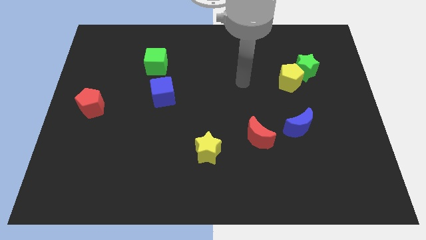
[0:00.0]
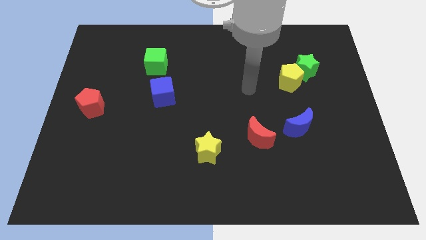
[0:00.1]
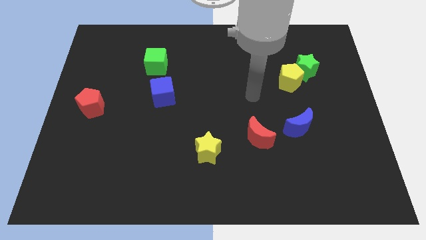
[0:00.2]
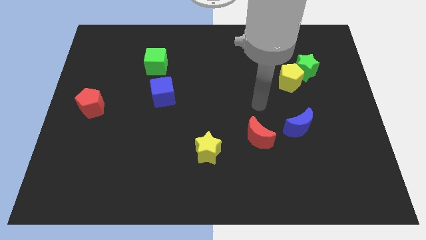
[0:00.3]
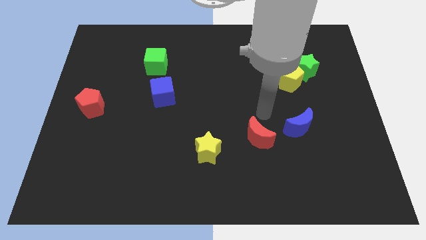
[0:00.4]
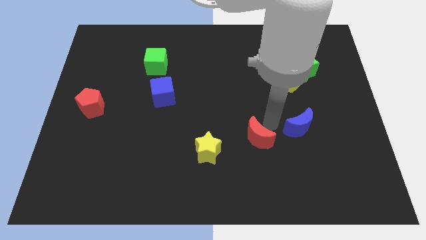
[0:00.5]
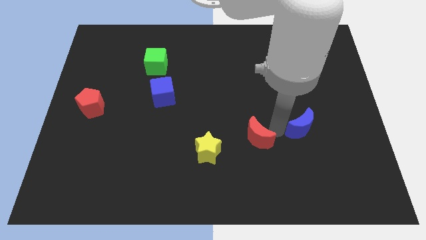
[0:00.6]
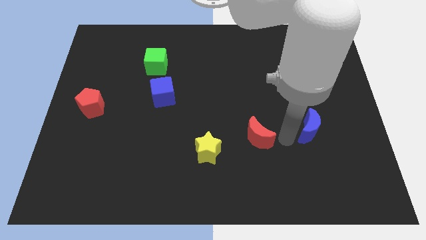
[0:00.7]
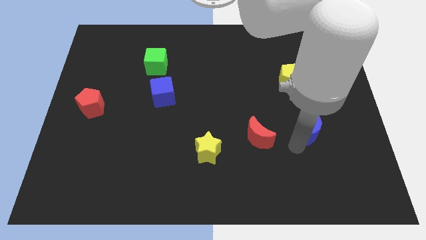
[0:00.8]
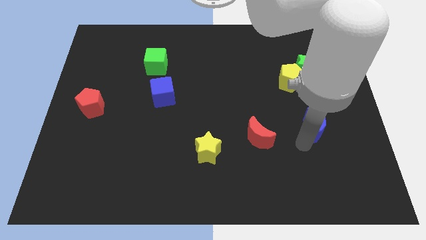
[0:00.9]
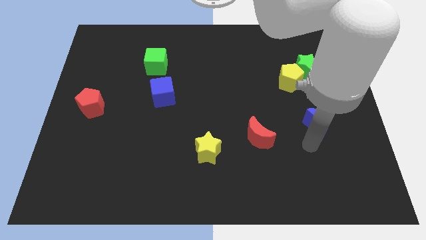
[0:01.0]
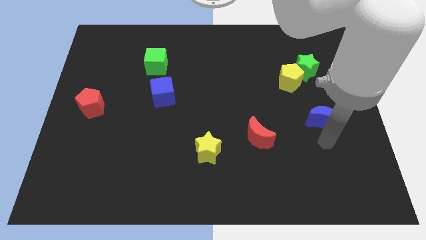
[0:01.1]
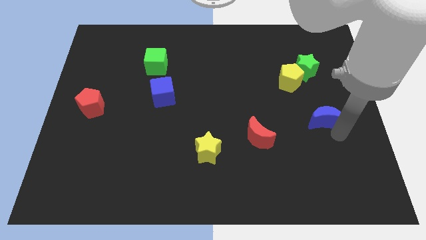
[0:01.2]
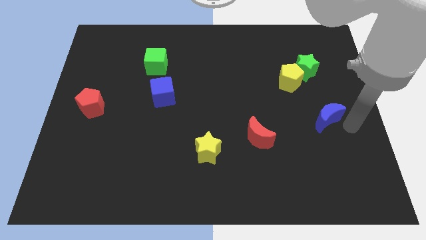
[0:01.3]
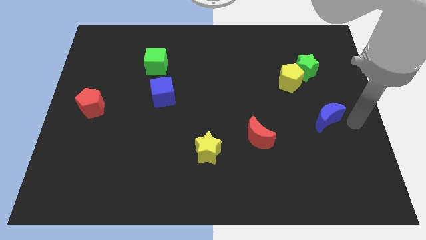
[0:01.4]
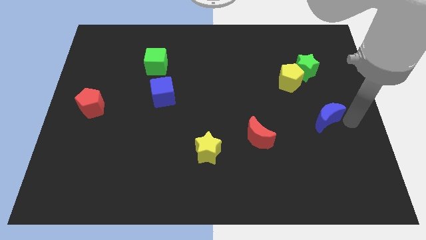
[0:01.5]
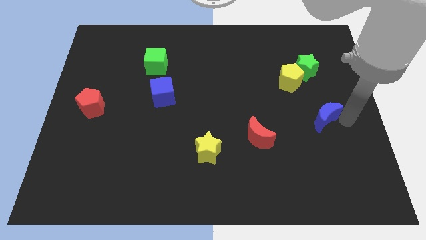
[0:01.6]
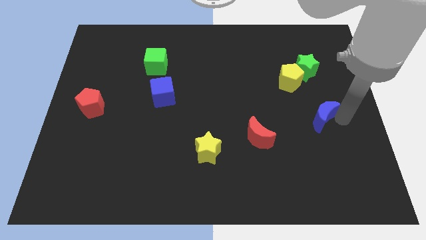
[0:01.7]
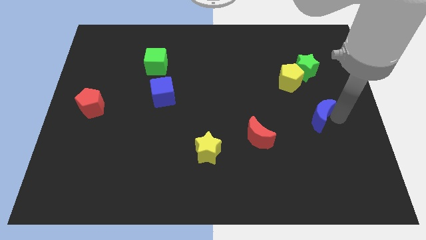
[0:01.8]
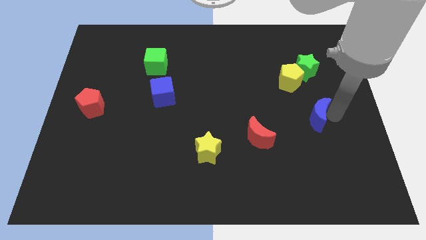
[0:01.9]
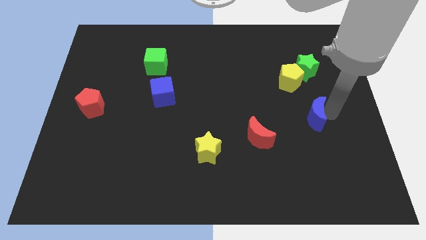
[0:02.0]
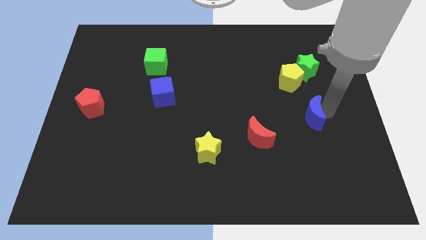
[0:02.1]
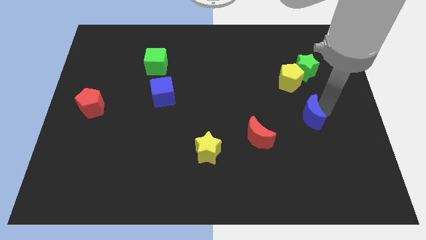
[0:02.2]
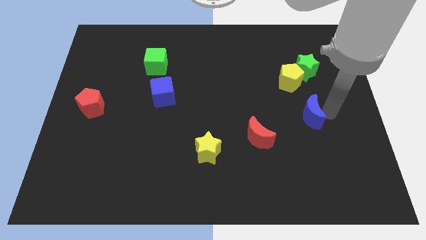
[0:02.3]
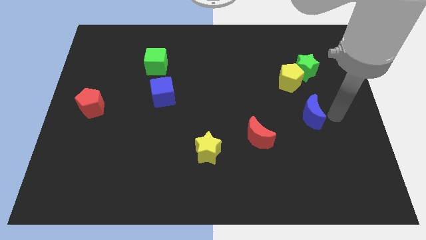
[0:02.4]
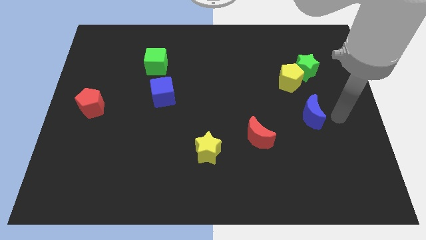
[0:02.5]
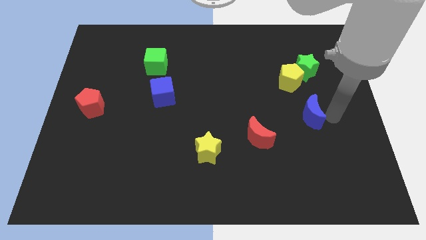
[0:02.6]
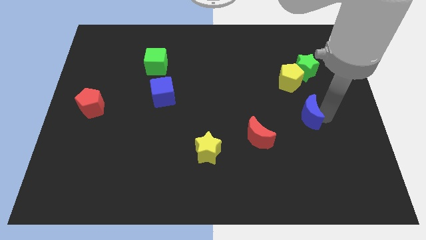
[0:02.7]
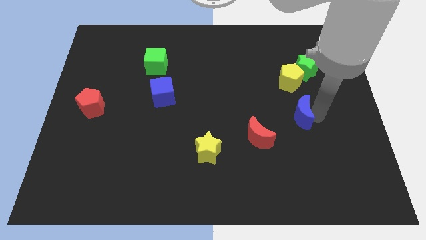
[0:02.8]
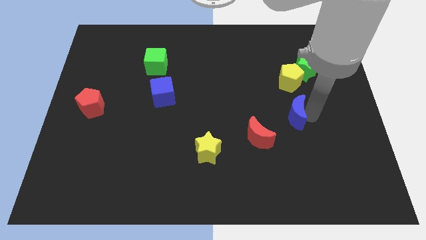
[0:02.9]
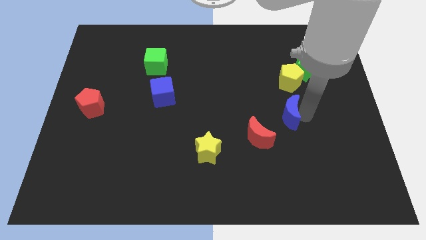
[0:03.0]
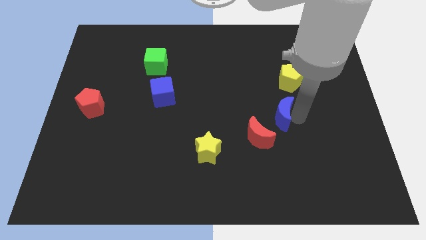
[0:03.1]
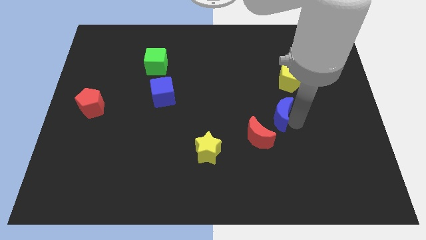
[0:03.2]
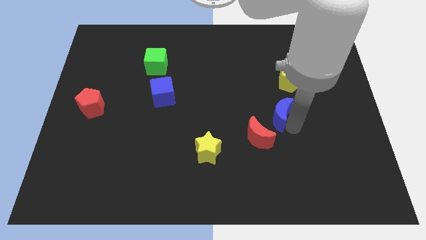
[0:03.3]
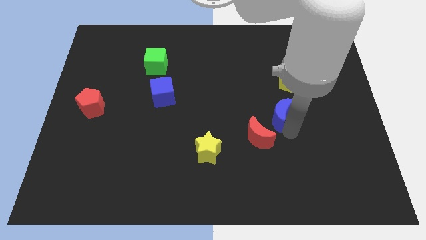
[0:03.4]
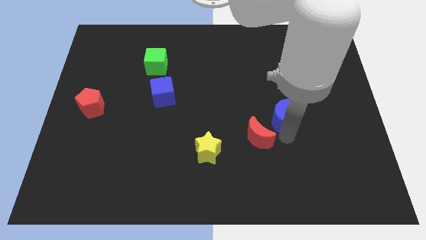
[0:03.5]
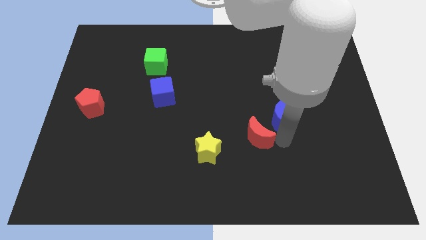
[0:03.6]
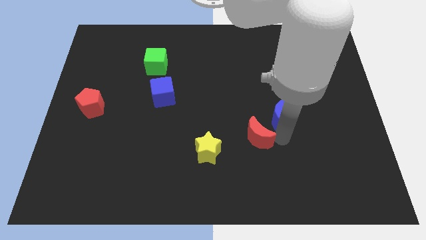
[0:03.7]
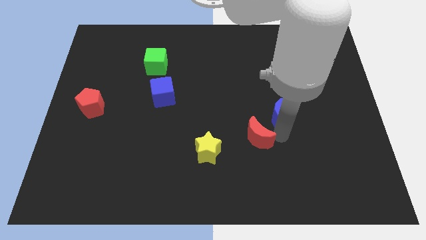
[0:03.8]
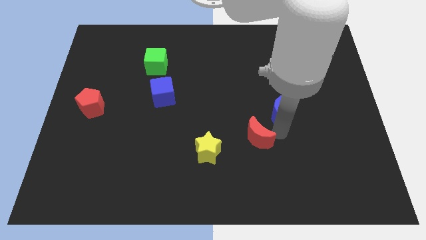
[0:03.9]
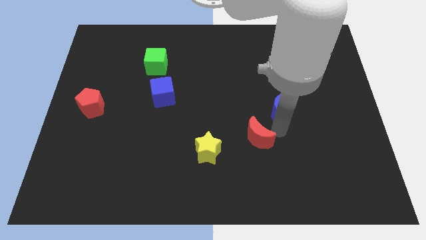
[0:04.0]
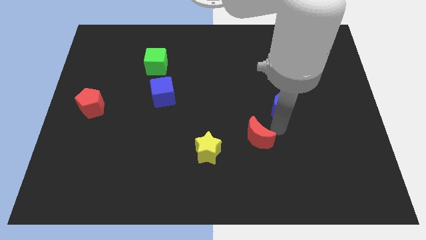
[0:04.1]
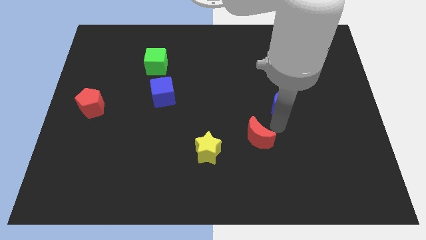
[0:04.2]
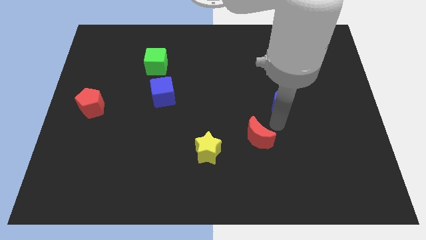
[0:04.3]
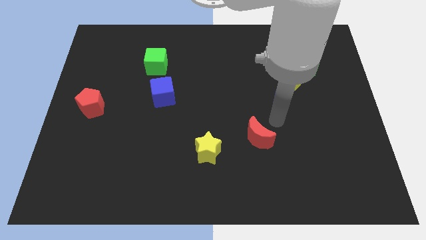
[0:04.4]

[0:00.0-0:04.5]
slightly push the blue moon upwards

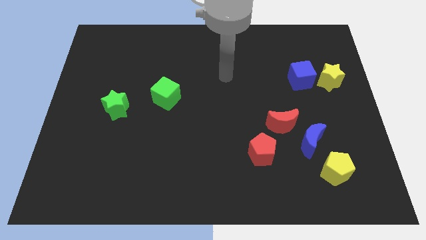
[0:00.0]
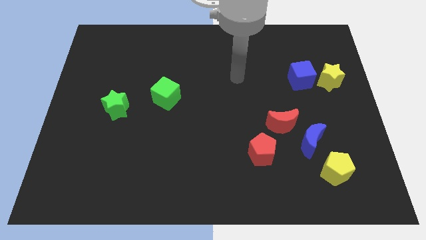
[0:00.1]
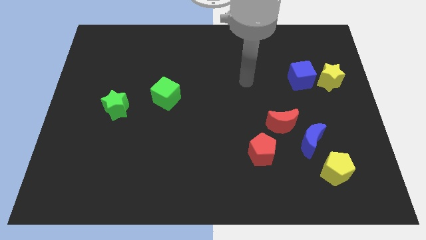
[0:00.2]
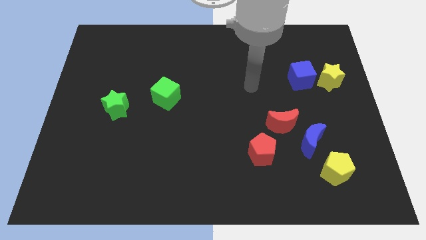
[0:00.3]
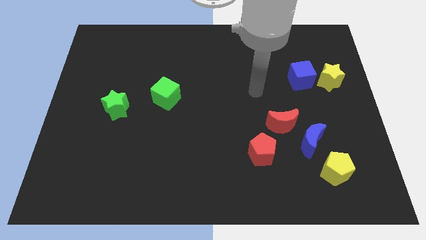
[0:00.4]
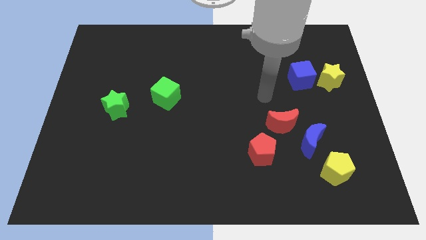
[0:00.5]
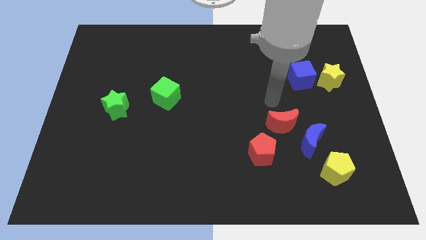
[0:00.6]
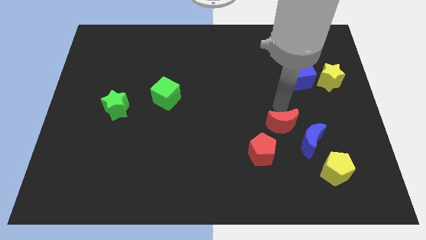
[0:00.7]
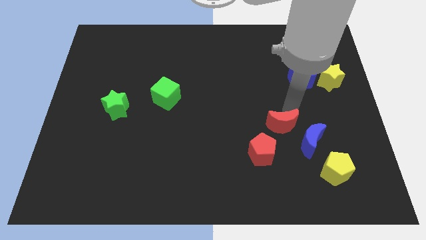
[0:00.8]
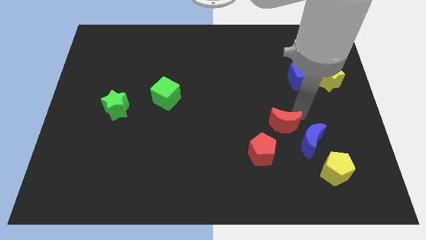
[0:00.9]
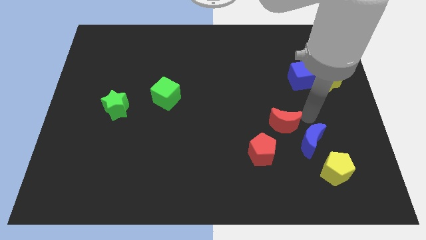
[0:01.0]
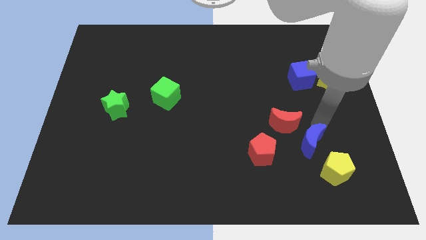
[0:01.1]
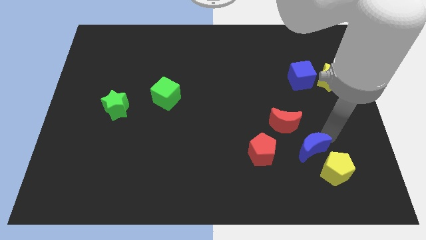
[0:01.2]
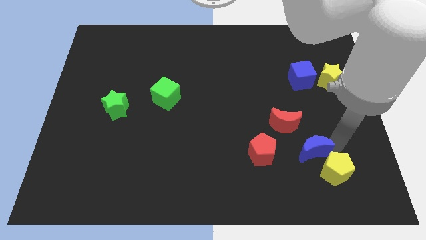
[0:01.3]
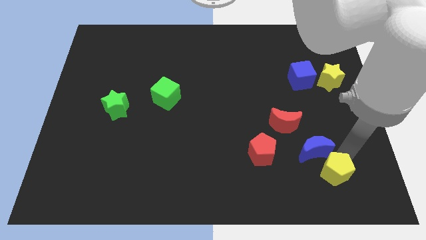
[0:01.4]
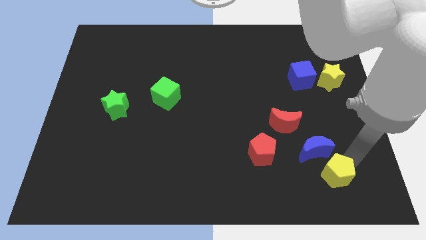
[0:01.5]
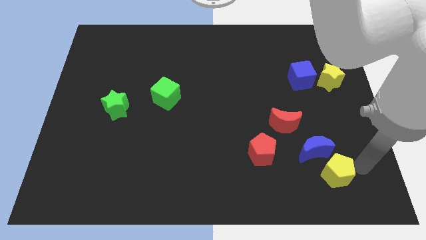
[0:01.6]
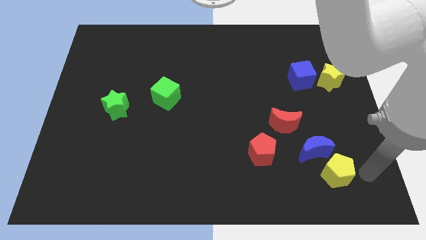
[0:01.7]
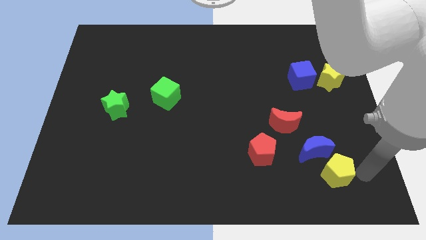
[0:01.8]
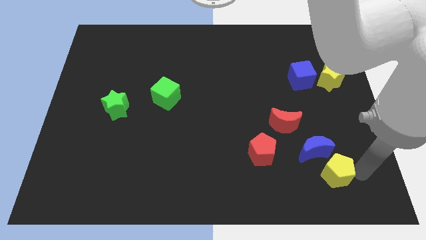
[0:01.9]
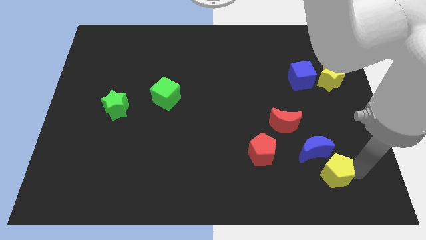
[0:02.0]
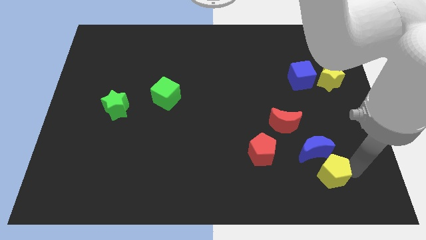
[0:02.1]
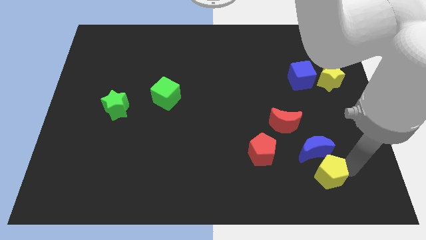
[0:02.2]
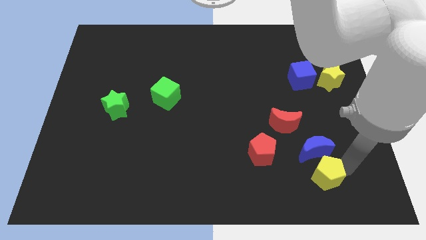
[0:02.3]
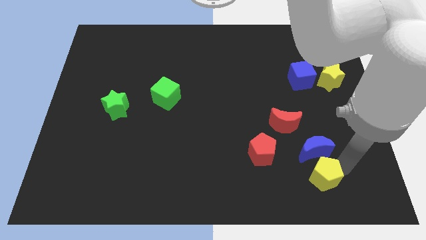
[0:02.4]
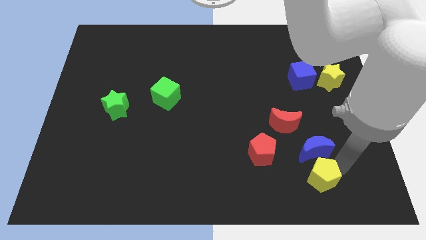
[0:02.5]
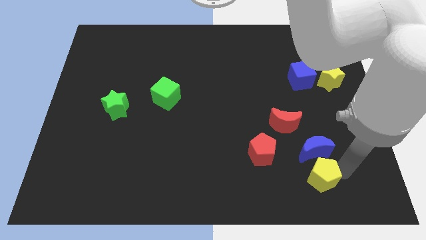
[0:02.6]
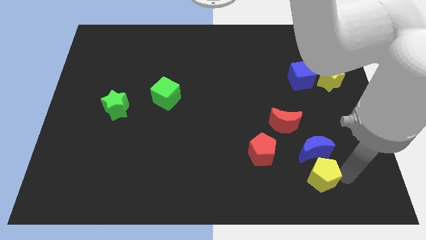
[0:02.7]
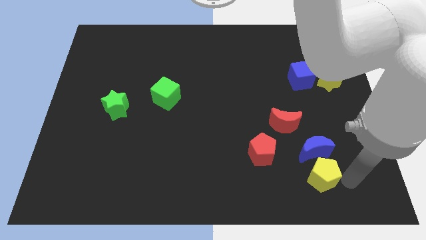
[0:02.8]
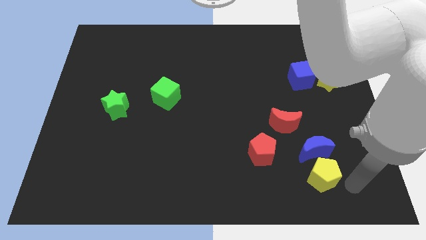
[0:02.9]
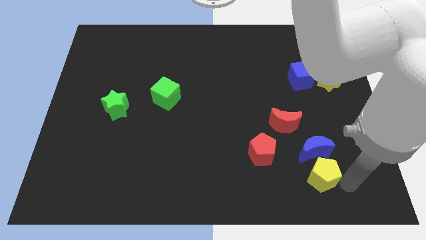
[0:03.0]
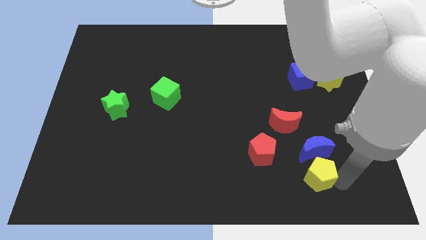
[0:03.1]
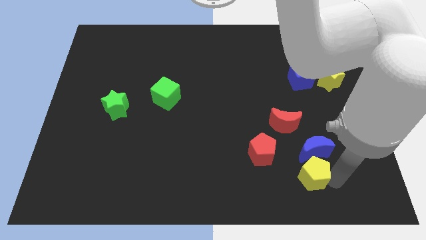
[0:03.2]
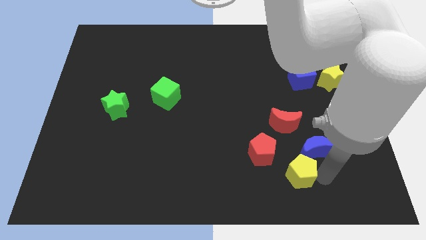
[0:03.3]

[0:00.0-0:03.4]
slightly move the yellow pentagon to the left
